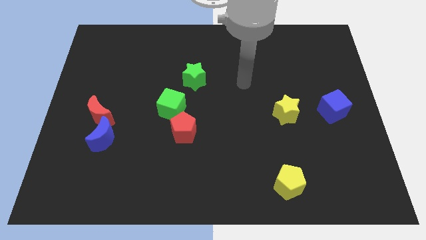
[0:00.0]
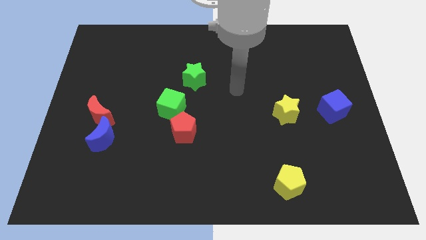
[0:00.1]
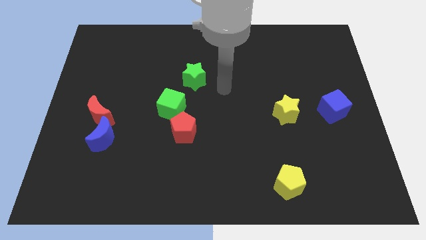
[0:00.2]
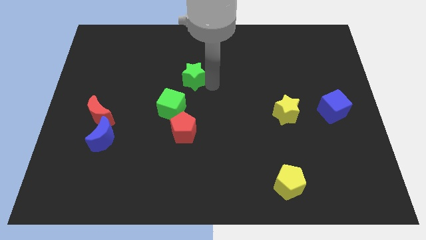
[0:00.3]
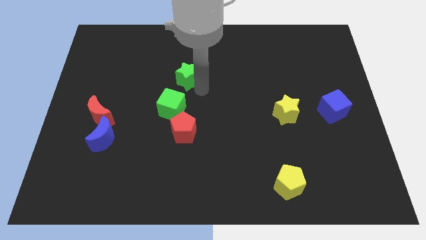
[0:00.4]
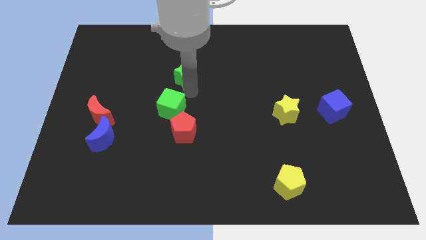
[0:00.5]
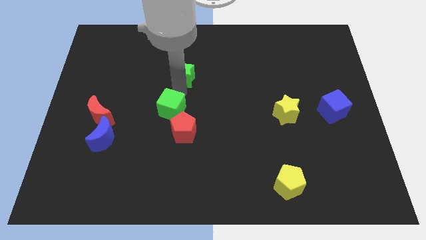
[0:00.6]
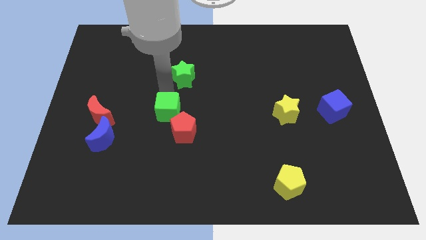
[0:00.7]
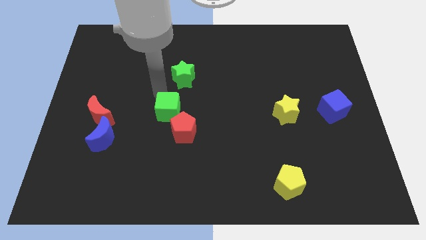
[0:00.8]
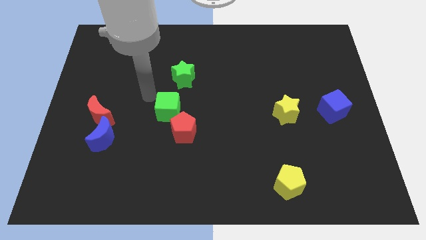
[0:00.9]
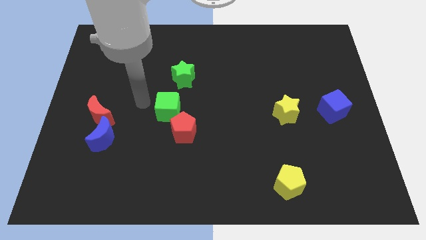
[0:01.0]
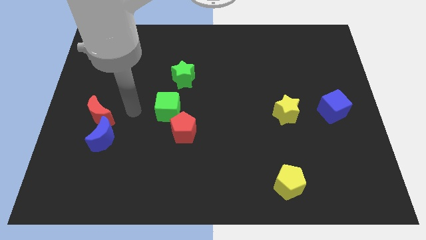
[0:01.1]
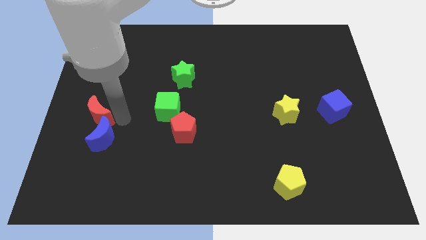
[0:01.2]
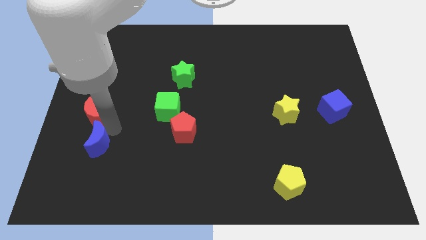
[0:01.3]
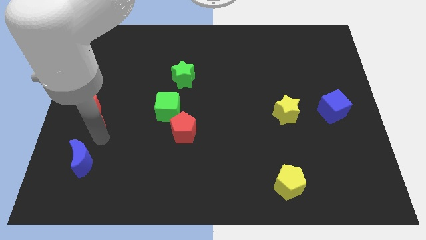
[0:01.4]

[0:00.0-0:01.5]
separate the red moon from the blue moon

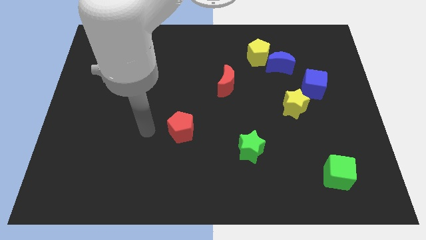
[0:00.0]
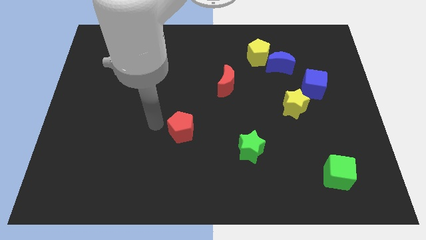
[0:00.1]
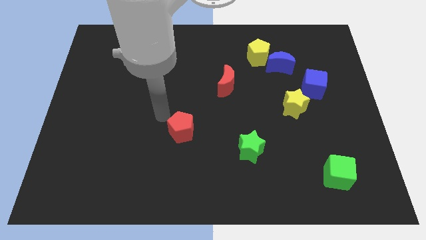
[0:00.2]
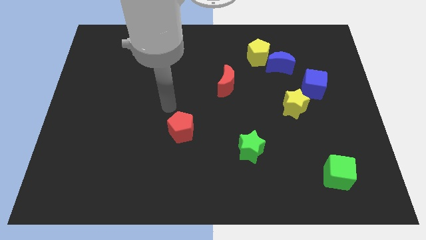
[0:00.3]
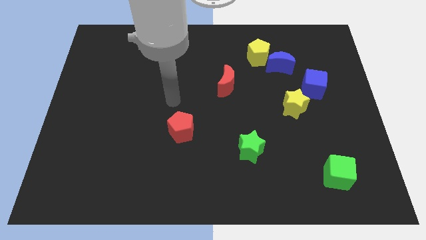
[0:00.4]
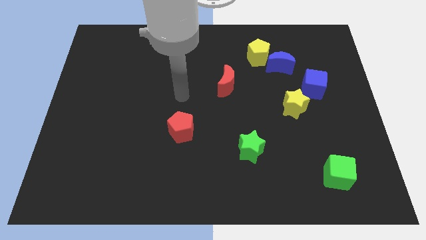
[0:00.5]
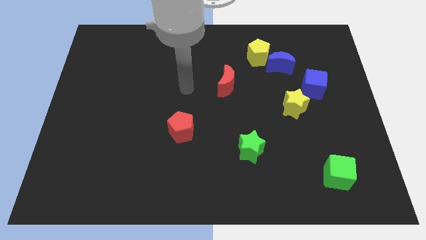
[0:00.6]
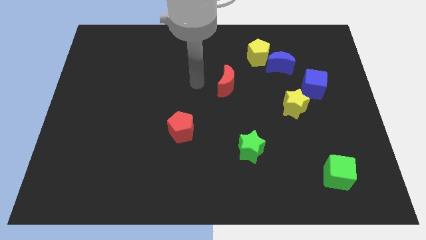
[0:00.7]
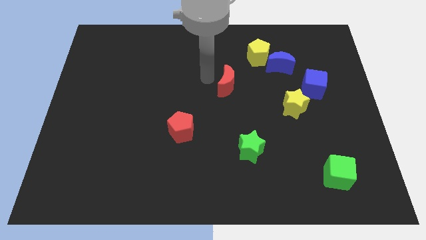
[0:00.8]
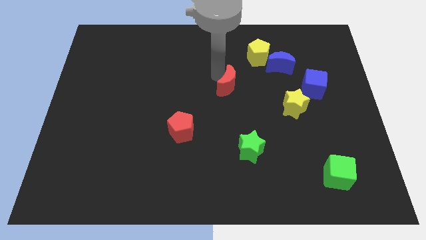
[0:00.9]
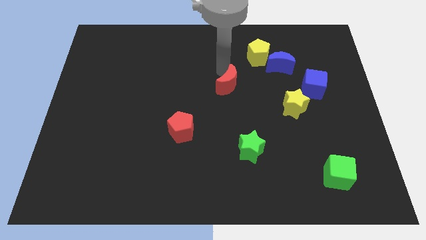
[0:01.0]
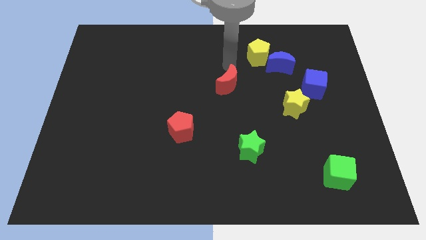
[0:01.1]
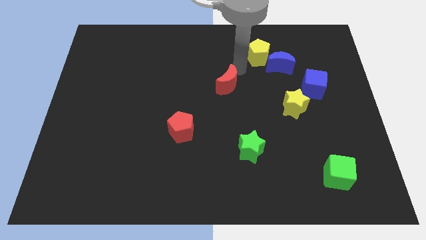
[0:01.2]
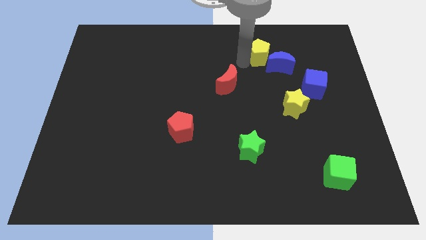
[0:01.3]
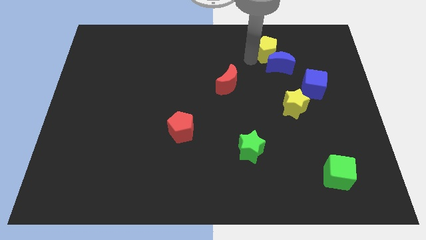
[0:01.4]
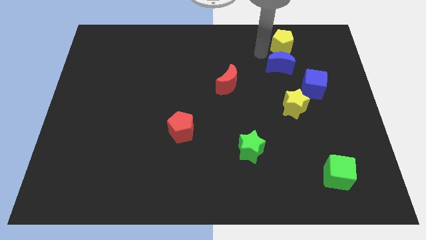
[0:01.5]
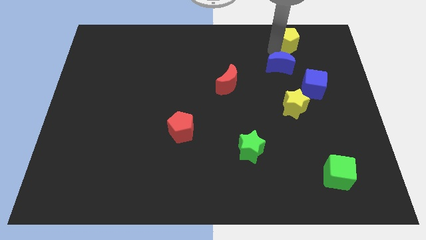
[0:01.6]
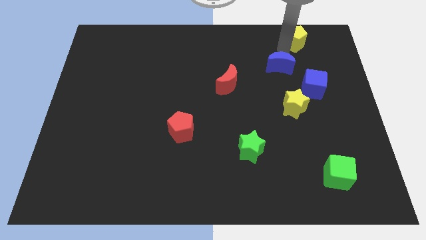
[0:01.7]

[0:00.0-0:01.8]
move the blue moon away from the yellow pentagon

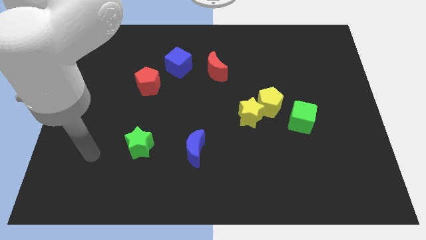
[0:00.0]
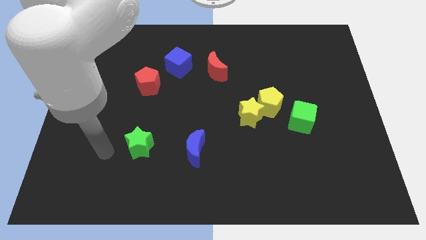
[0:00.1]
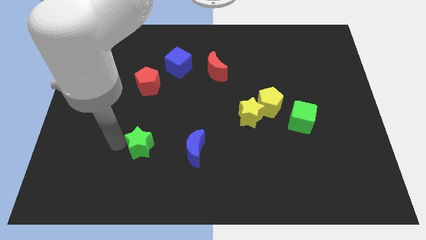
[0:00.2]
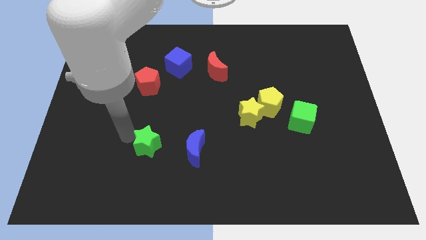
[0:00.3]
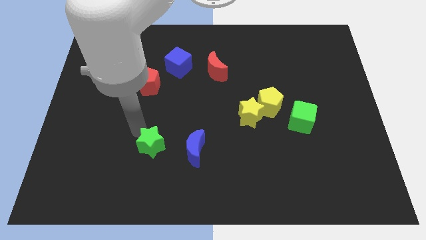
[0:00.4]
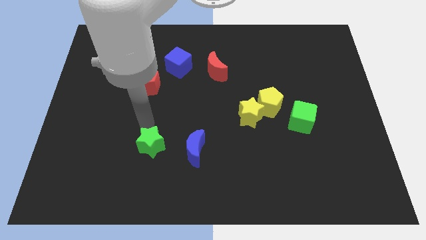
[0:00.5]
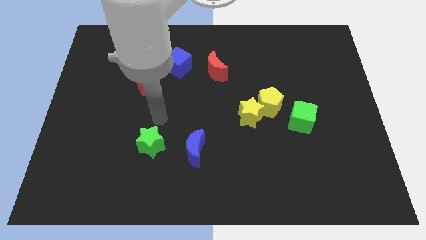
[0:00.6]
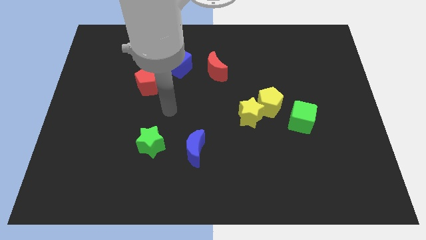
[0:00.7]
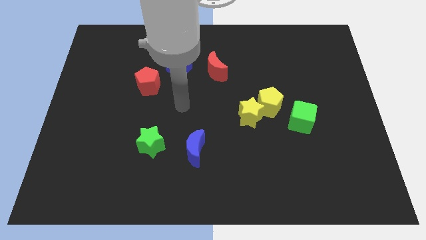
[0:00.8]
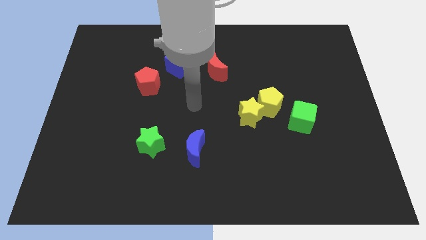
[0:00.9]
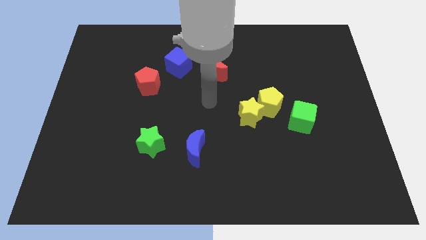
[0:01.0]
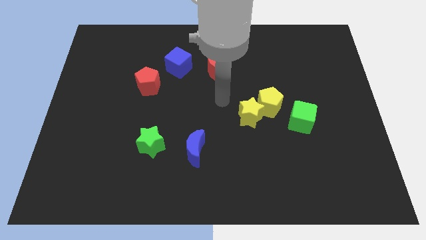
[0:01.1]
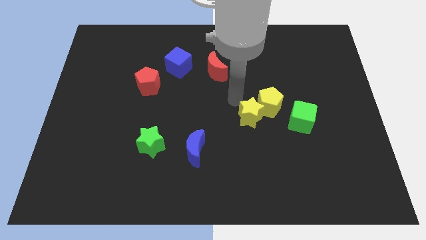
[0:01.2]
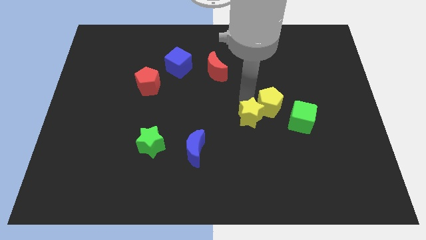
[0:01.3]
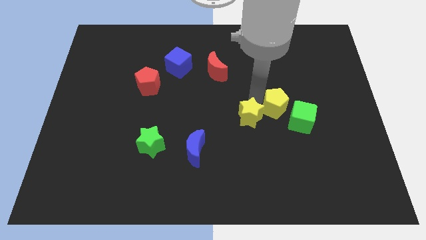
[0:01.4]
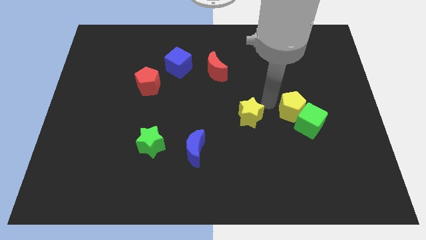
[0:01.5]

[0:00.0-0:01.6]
pull the yellow star apart from the yellow pentagon

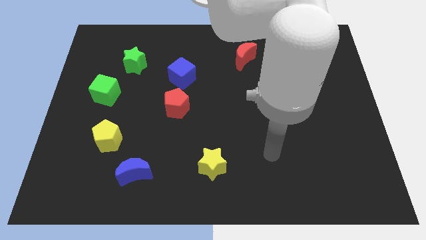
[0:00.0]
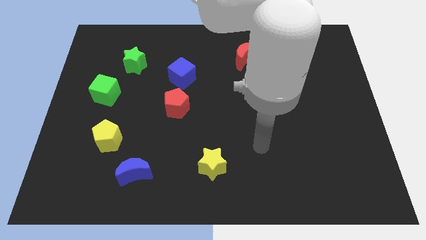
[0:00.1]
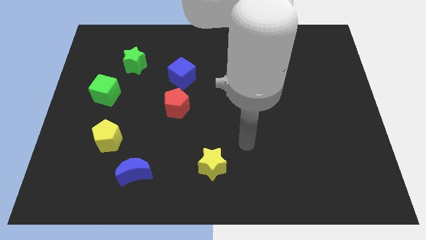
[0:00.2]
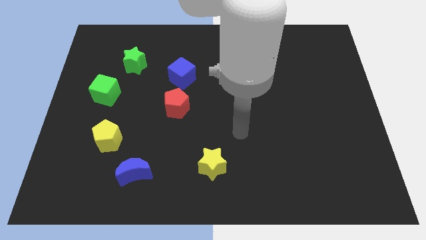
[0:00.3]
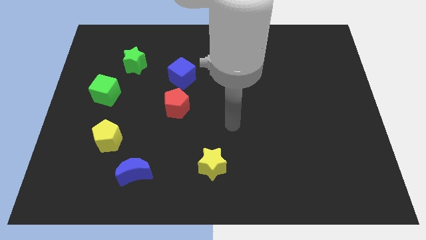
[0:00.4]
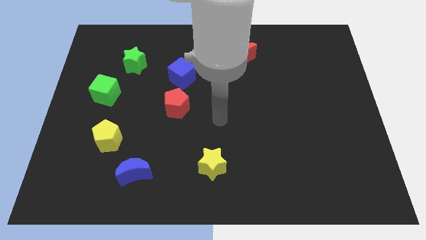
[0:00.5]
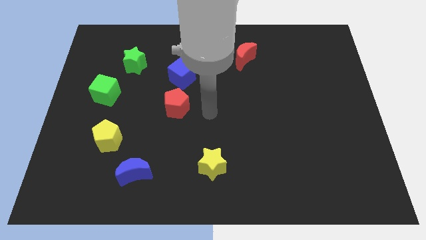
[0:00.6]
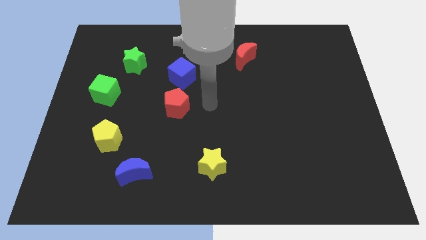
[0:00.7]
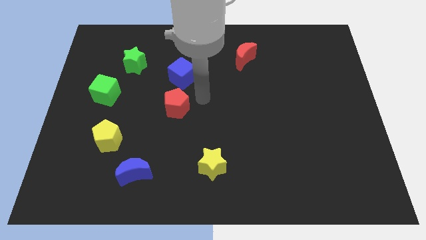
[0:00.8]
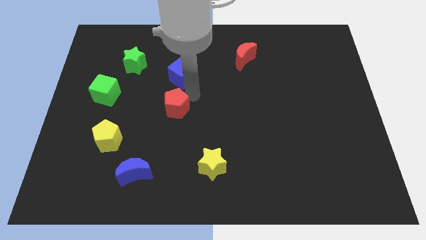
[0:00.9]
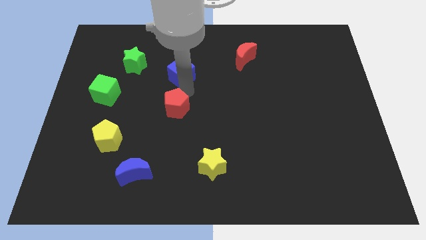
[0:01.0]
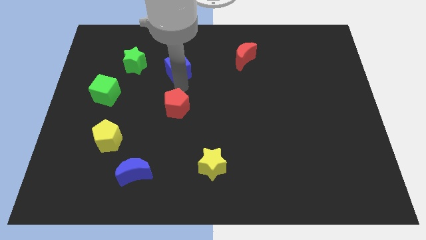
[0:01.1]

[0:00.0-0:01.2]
pull the red pentagon apart from the blue cube

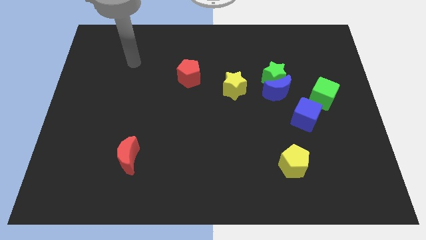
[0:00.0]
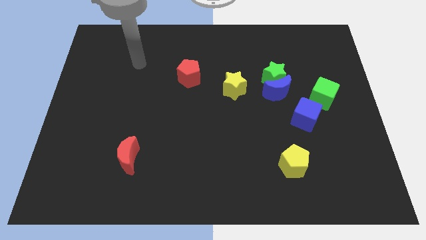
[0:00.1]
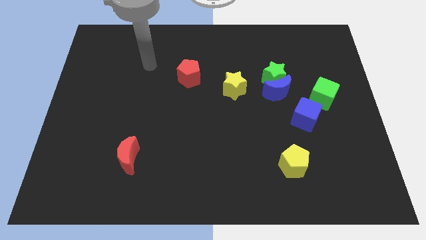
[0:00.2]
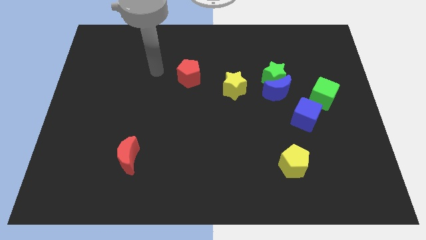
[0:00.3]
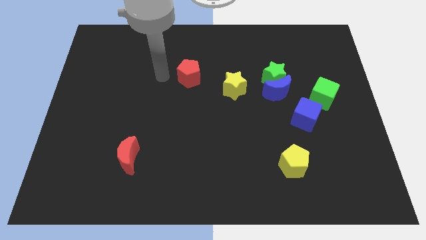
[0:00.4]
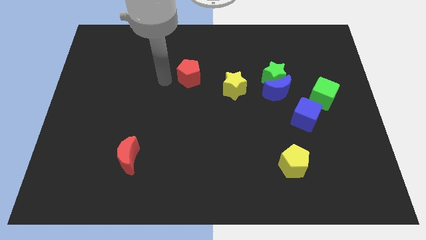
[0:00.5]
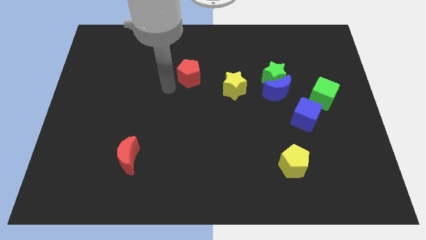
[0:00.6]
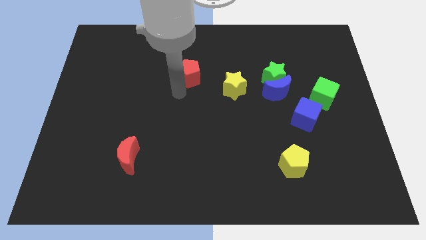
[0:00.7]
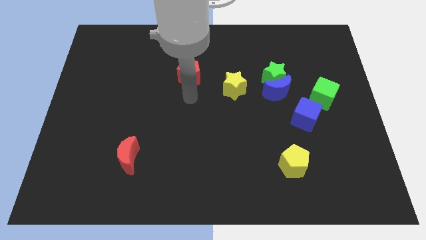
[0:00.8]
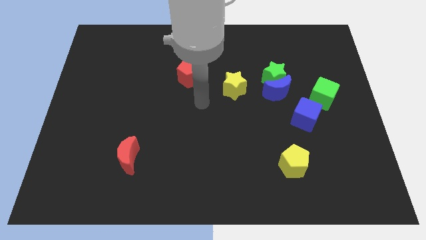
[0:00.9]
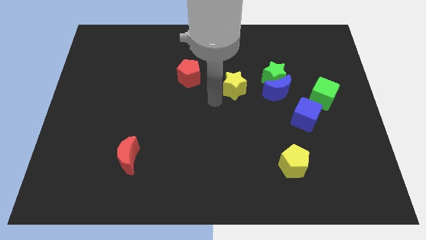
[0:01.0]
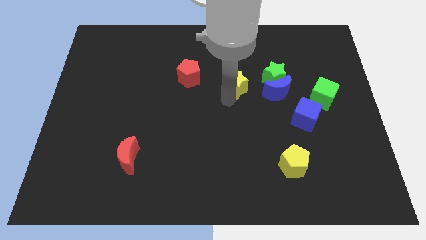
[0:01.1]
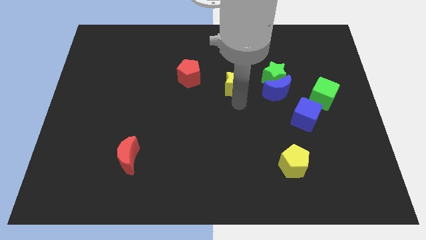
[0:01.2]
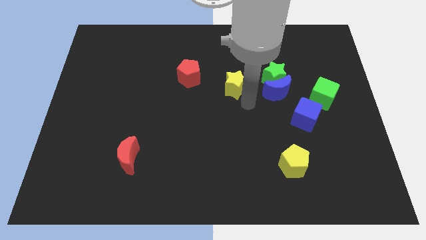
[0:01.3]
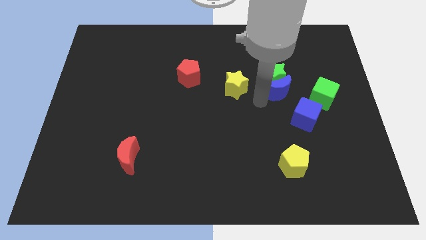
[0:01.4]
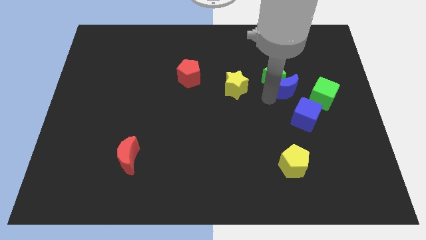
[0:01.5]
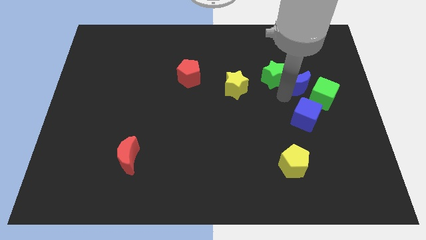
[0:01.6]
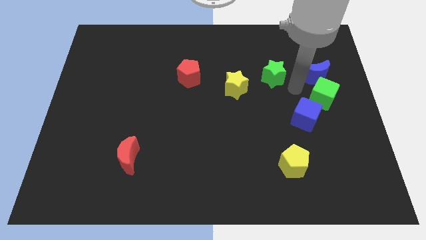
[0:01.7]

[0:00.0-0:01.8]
separate the green star from the blue moon

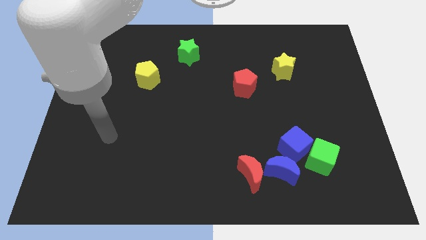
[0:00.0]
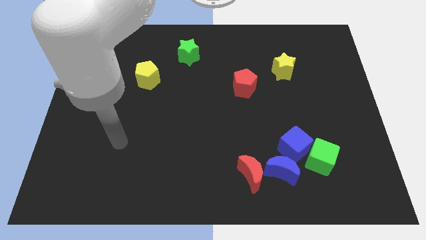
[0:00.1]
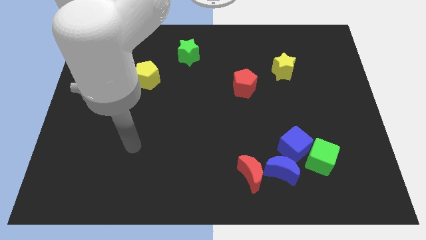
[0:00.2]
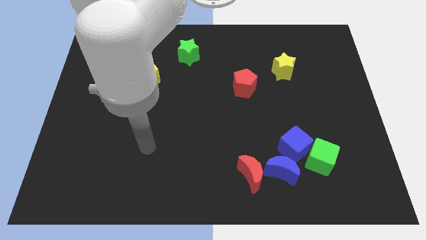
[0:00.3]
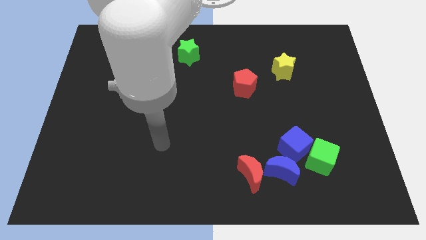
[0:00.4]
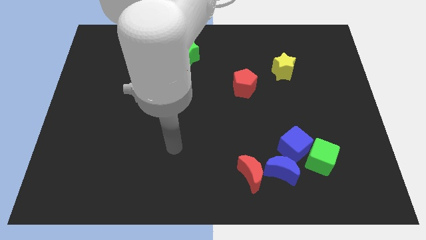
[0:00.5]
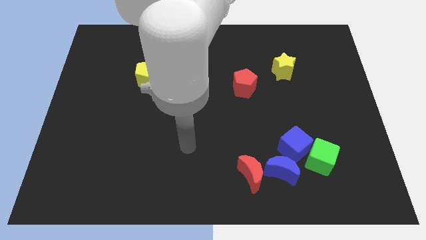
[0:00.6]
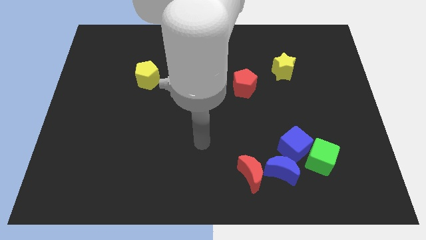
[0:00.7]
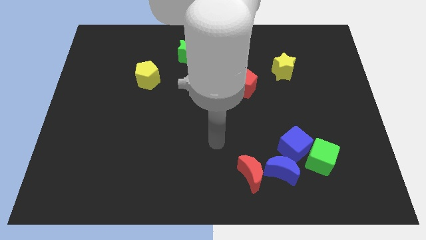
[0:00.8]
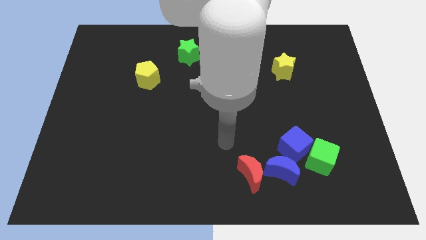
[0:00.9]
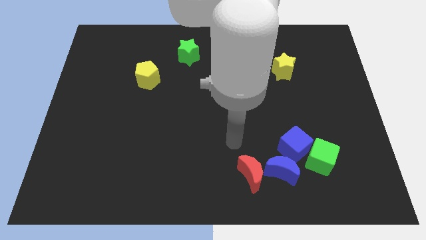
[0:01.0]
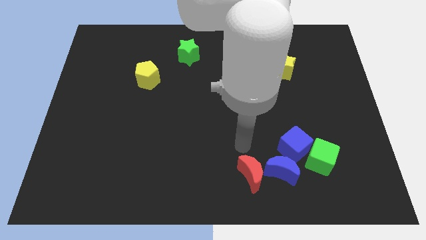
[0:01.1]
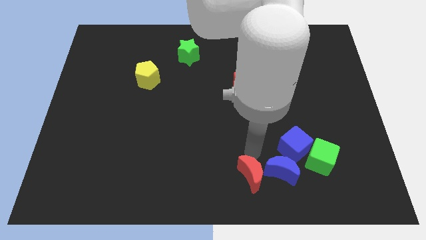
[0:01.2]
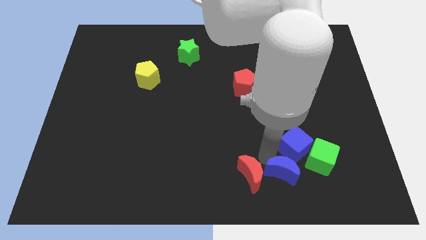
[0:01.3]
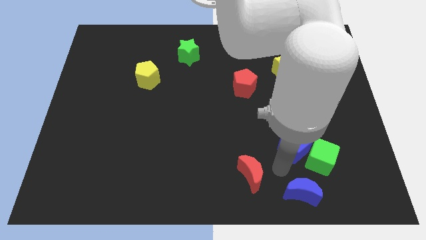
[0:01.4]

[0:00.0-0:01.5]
pull the red moon apart from the blue moon
